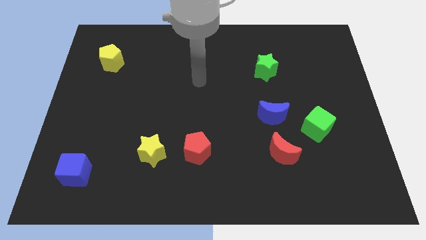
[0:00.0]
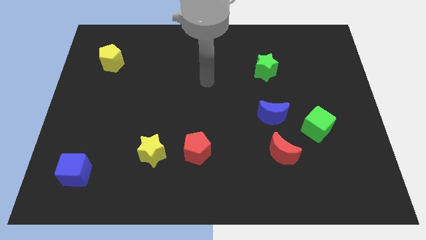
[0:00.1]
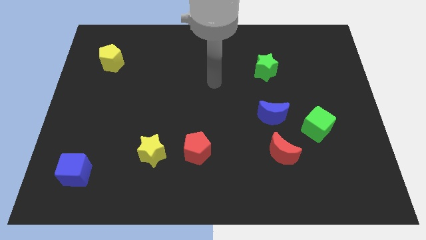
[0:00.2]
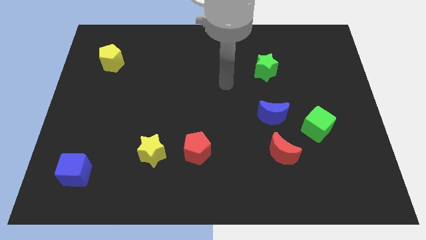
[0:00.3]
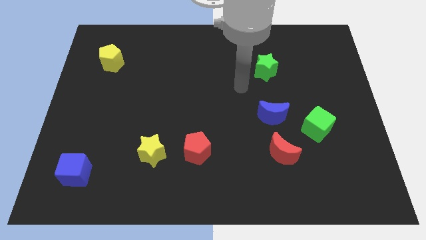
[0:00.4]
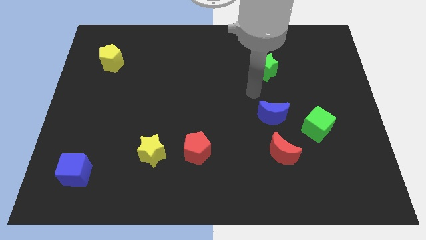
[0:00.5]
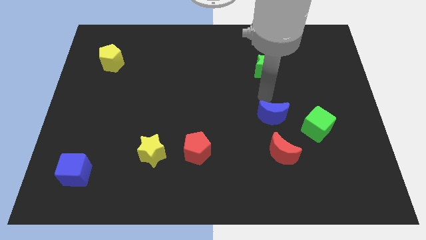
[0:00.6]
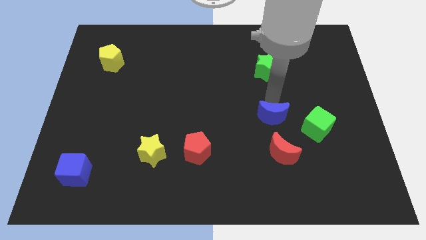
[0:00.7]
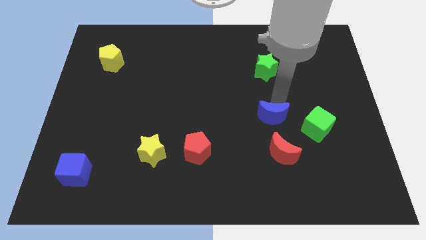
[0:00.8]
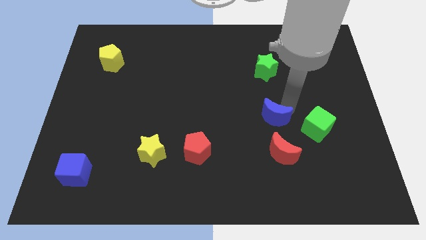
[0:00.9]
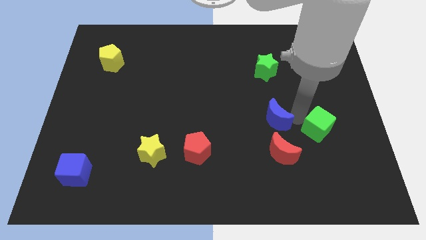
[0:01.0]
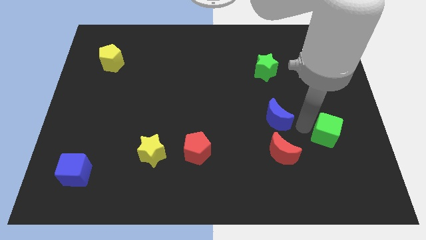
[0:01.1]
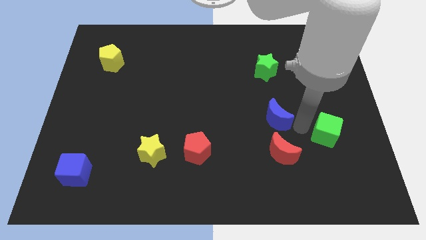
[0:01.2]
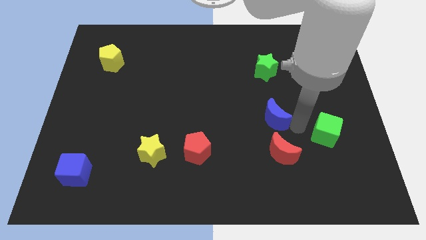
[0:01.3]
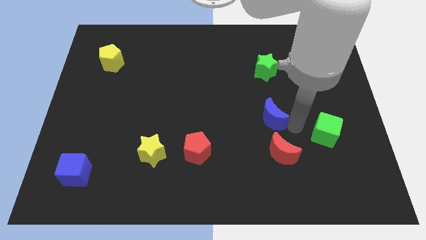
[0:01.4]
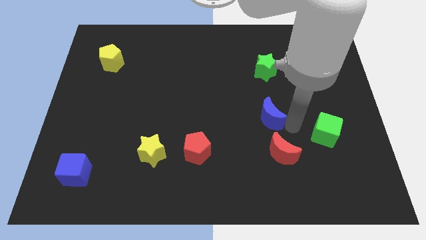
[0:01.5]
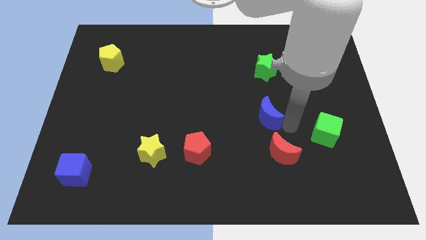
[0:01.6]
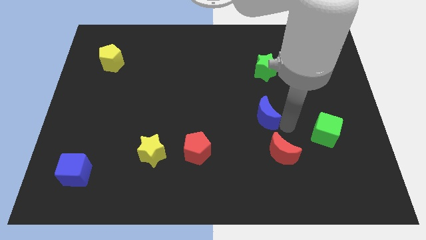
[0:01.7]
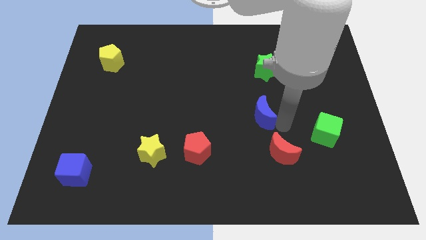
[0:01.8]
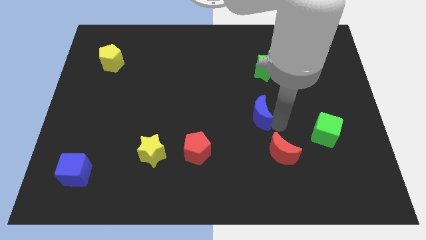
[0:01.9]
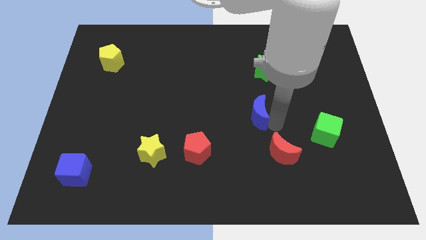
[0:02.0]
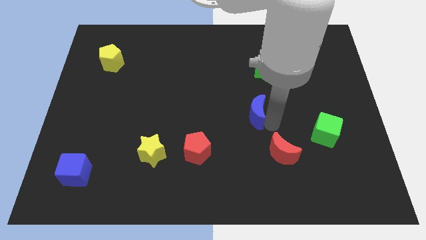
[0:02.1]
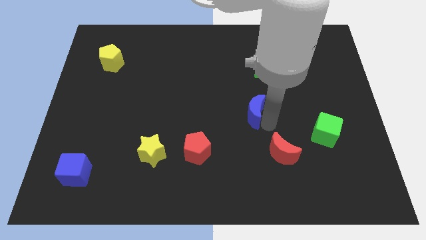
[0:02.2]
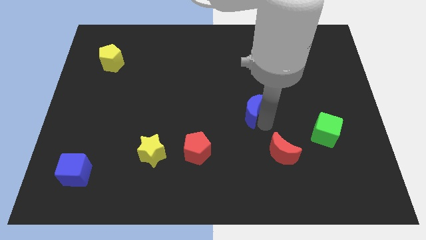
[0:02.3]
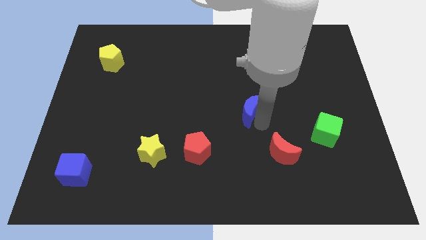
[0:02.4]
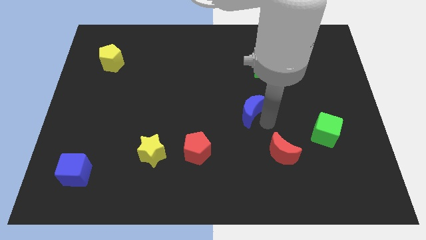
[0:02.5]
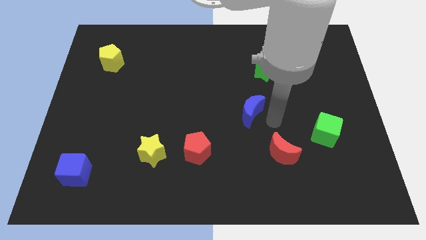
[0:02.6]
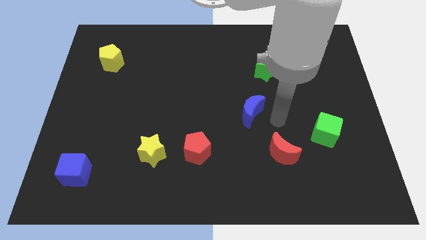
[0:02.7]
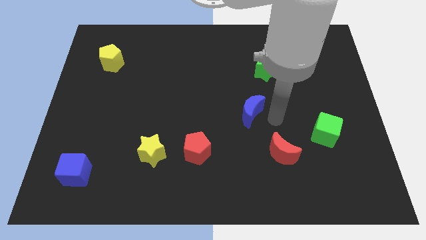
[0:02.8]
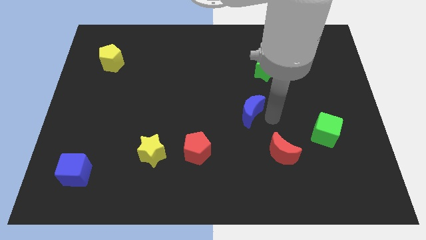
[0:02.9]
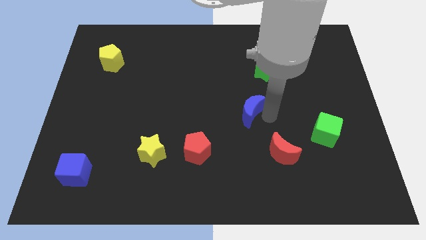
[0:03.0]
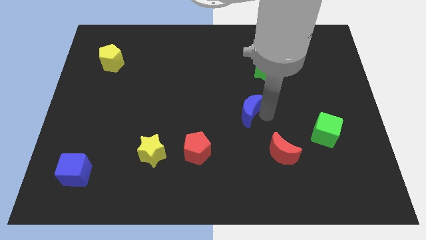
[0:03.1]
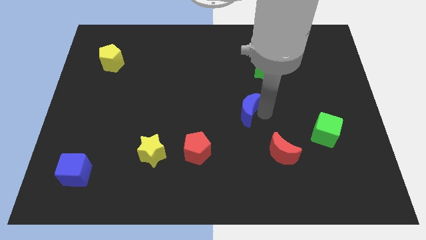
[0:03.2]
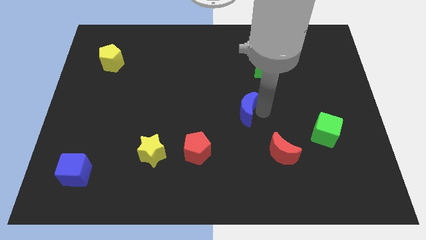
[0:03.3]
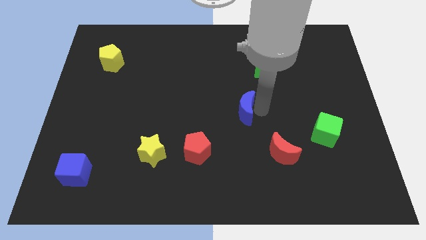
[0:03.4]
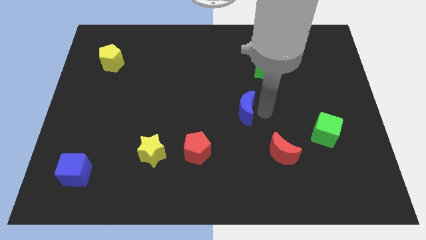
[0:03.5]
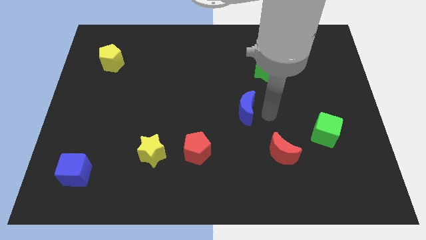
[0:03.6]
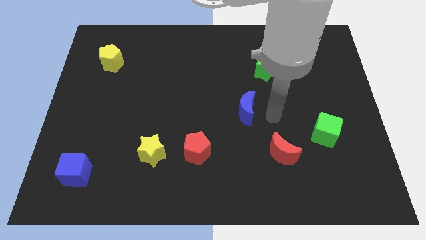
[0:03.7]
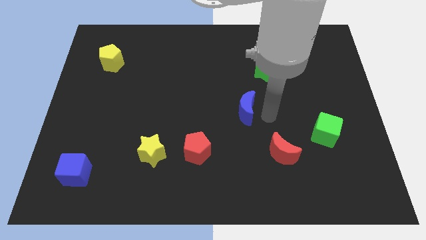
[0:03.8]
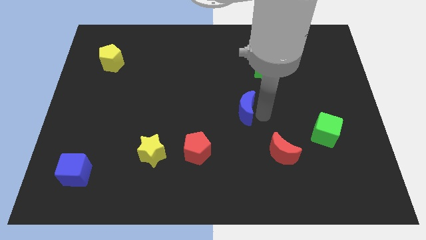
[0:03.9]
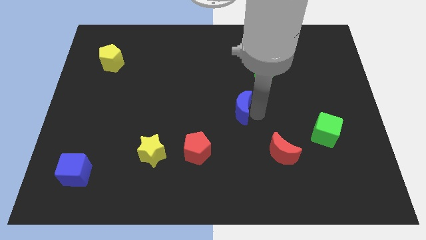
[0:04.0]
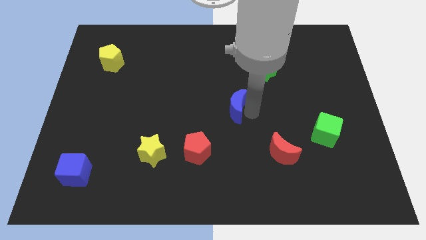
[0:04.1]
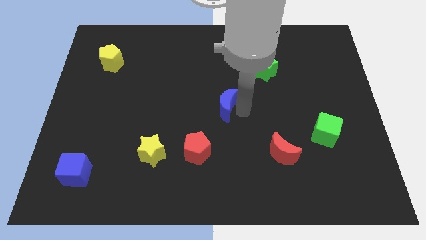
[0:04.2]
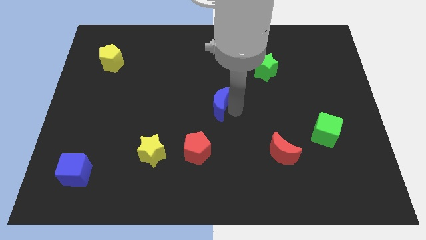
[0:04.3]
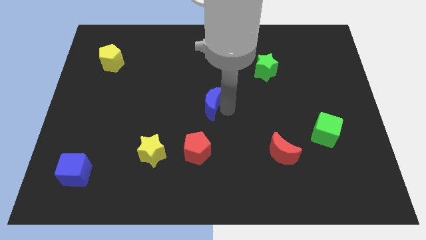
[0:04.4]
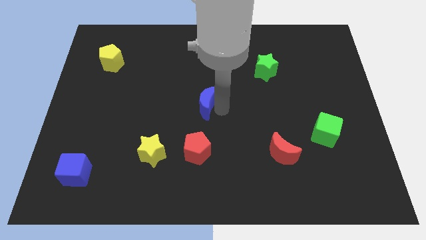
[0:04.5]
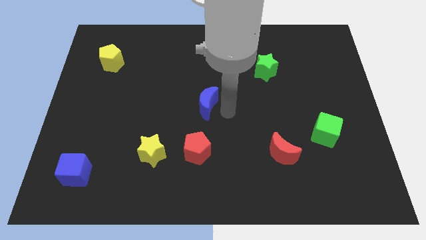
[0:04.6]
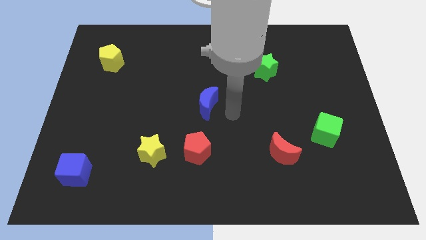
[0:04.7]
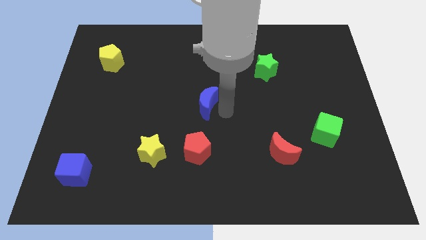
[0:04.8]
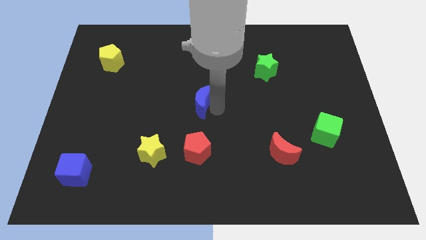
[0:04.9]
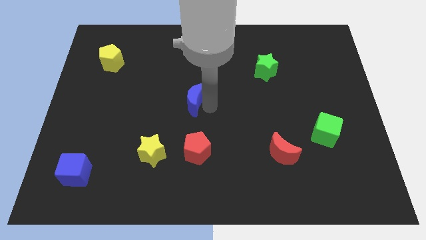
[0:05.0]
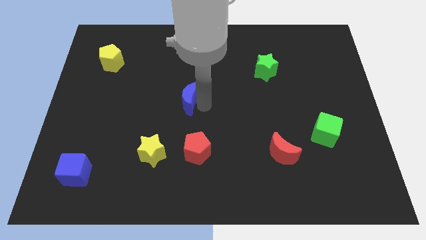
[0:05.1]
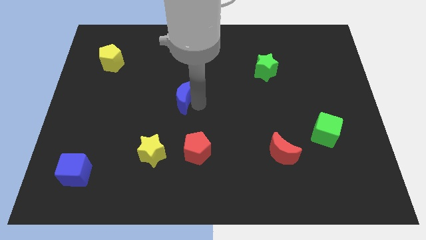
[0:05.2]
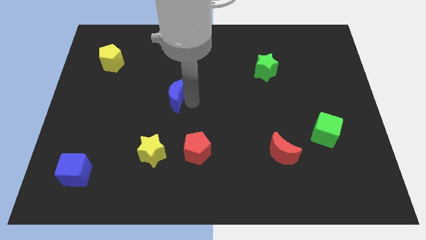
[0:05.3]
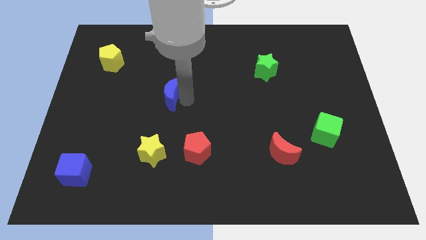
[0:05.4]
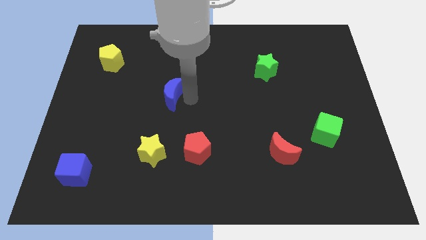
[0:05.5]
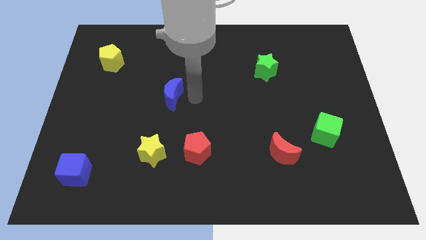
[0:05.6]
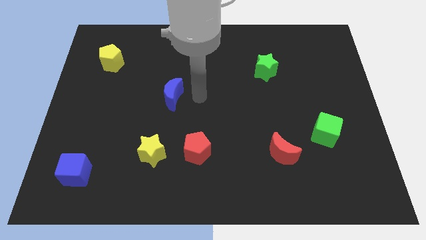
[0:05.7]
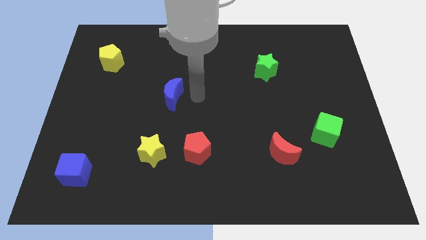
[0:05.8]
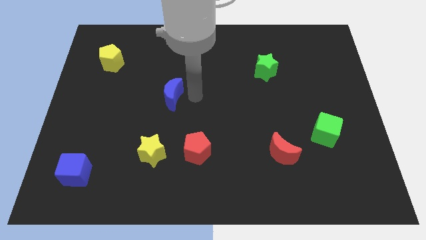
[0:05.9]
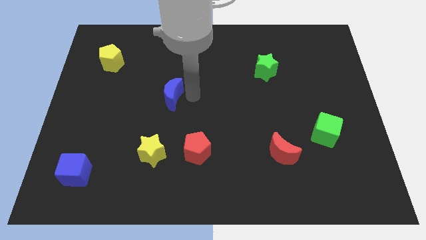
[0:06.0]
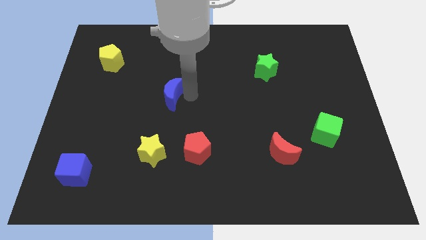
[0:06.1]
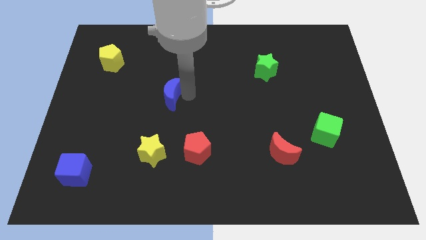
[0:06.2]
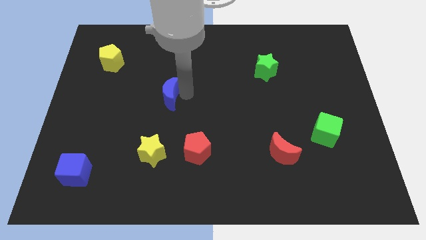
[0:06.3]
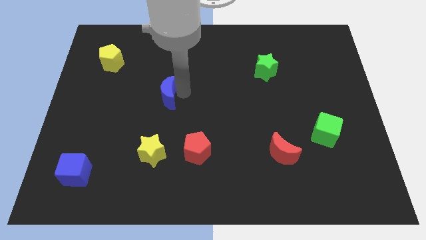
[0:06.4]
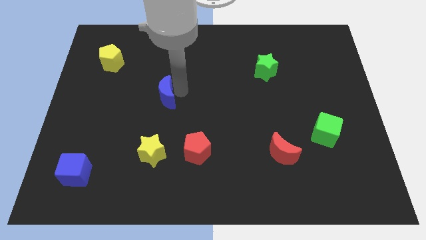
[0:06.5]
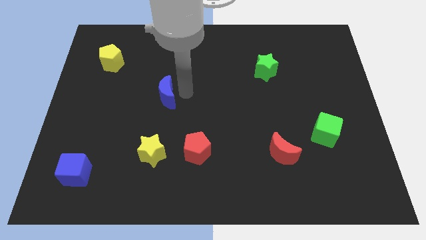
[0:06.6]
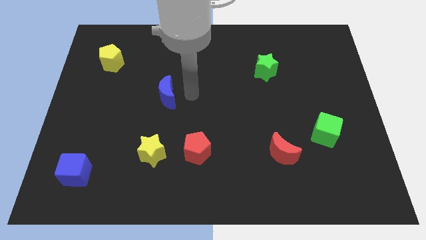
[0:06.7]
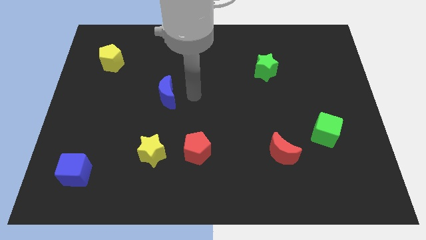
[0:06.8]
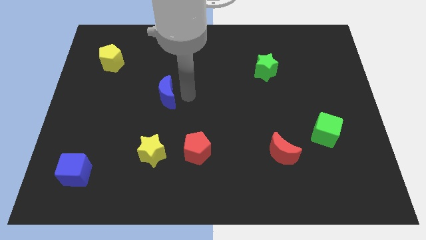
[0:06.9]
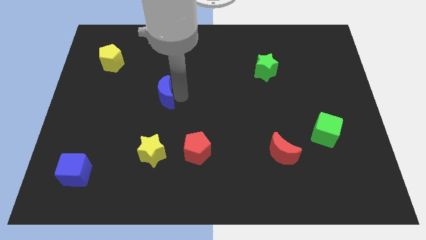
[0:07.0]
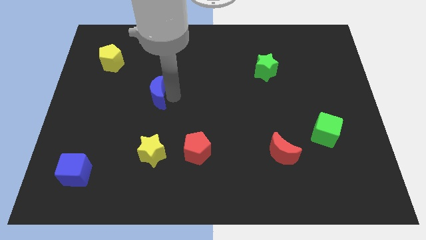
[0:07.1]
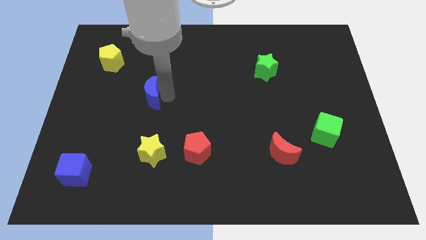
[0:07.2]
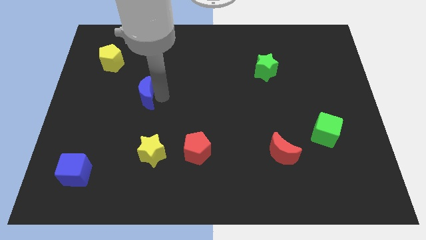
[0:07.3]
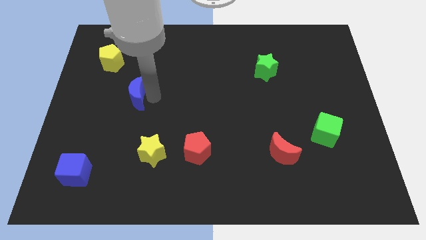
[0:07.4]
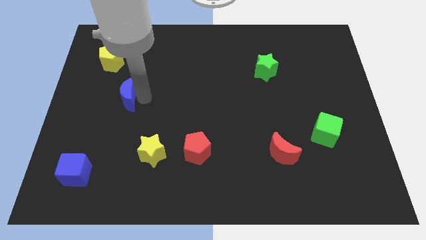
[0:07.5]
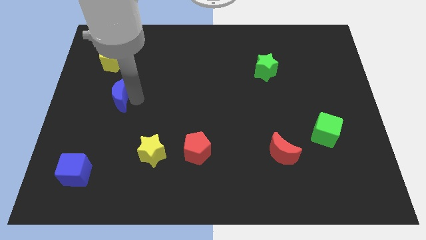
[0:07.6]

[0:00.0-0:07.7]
put the blue moon to the bottom side of the yellow pentagon
